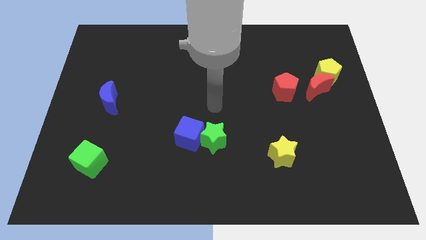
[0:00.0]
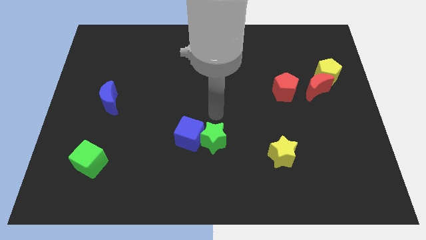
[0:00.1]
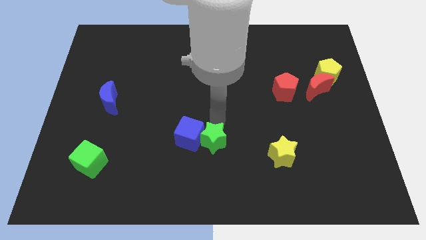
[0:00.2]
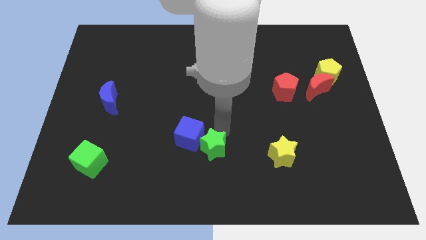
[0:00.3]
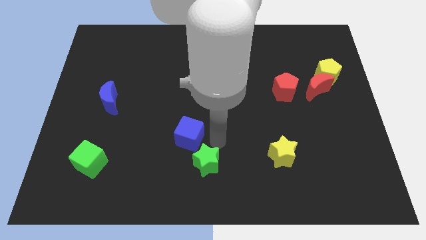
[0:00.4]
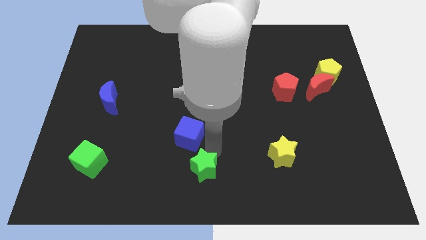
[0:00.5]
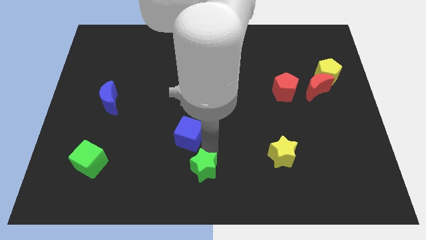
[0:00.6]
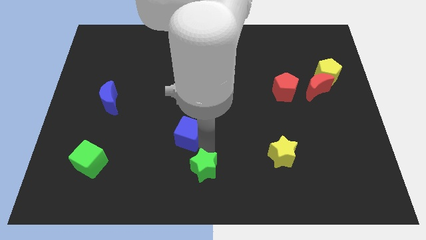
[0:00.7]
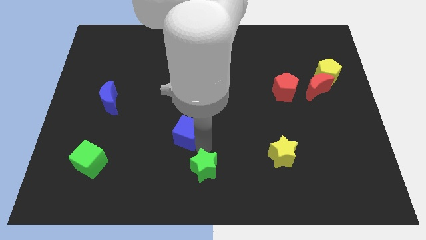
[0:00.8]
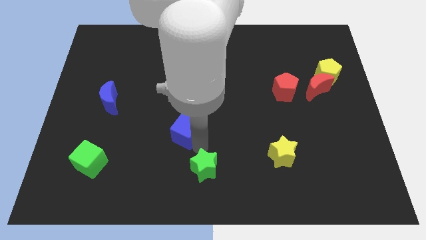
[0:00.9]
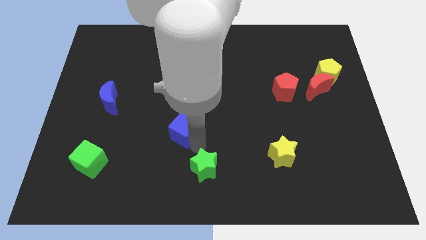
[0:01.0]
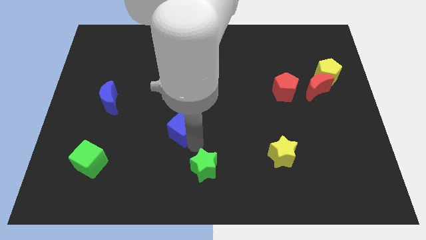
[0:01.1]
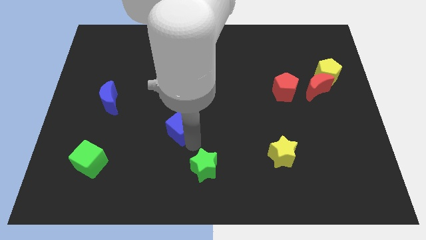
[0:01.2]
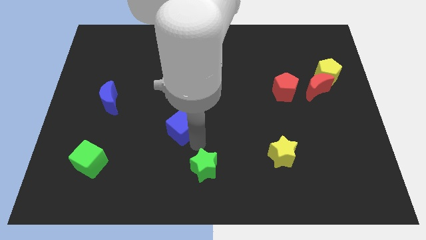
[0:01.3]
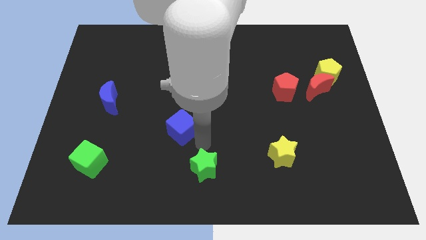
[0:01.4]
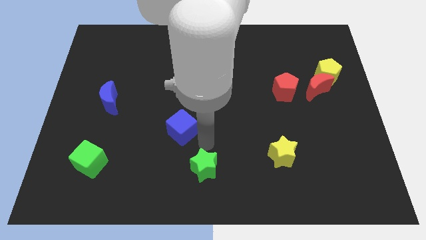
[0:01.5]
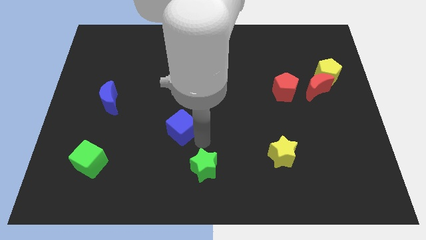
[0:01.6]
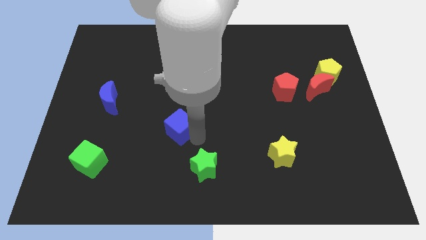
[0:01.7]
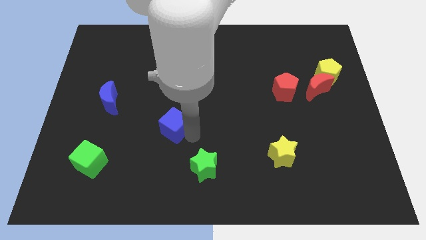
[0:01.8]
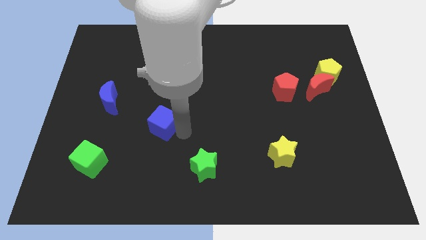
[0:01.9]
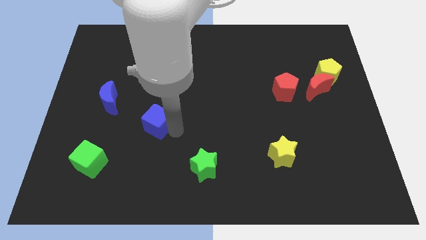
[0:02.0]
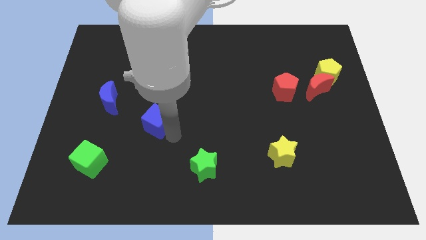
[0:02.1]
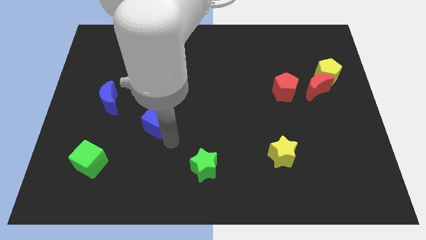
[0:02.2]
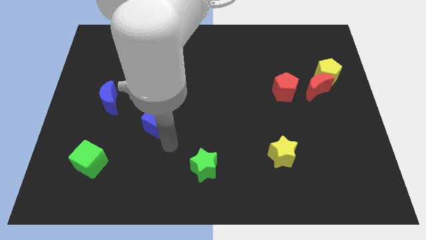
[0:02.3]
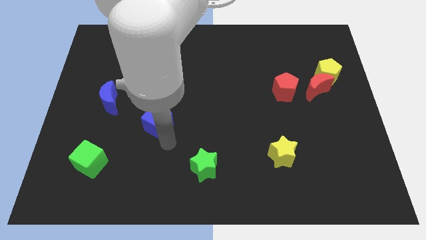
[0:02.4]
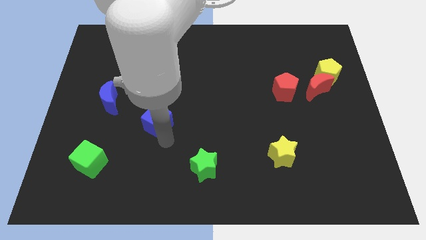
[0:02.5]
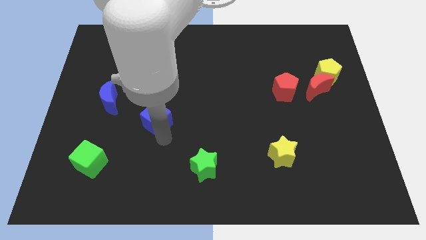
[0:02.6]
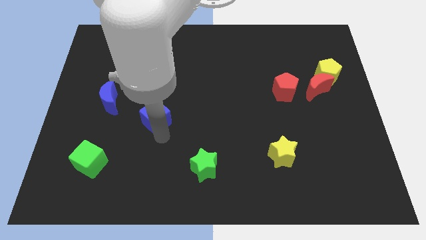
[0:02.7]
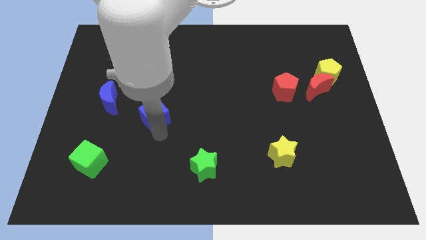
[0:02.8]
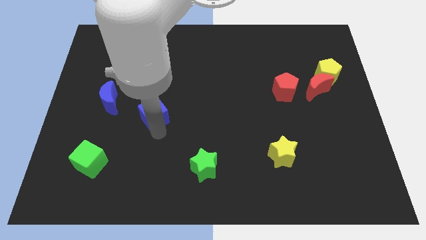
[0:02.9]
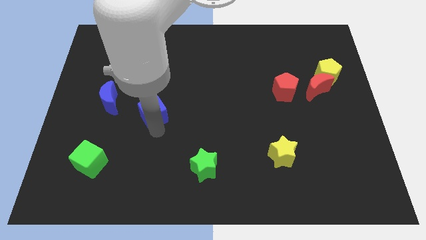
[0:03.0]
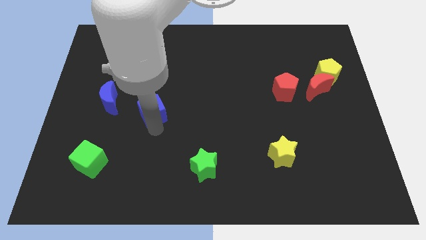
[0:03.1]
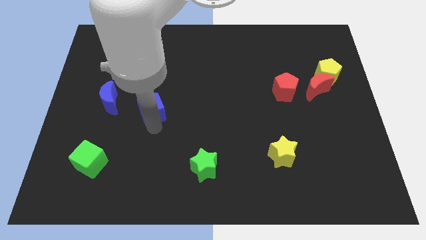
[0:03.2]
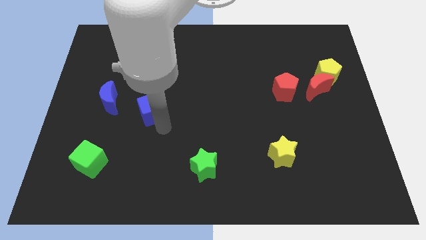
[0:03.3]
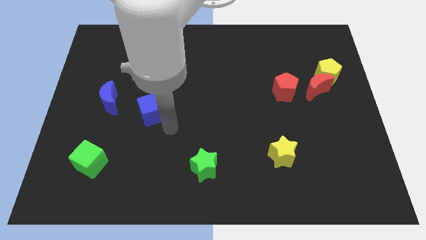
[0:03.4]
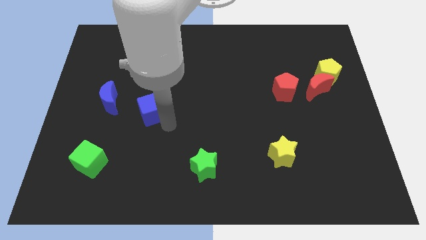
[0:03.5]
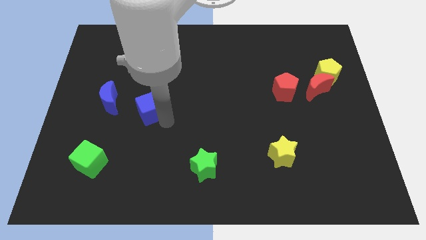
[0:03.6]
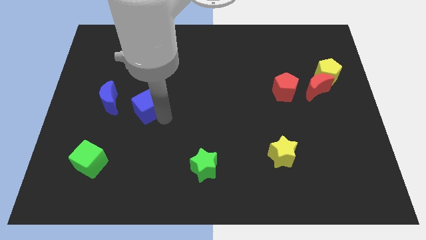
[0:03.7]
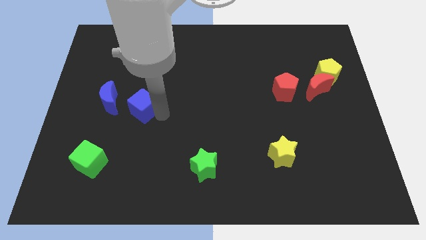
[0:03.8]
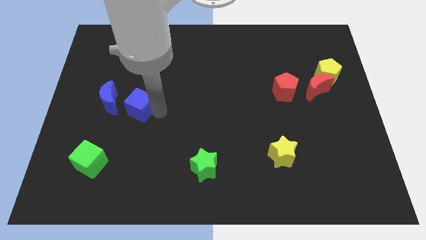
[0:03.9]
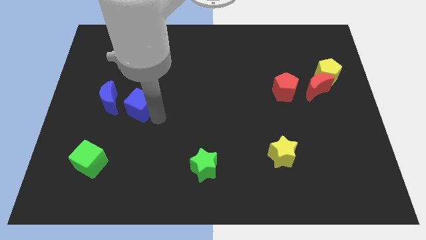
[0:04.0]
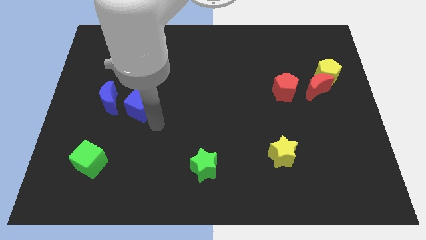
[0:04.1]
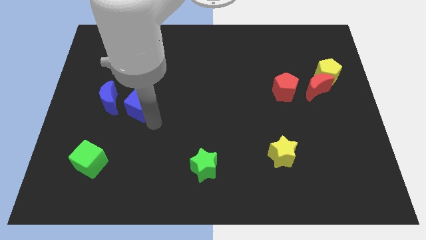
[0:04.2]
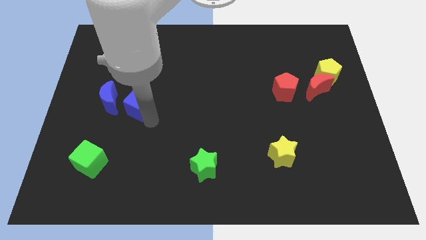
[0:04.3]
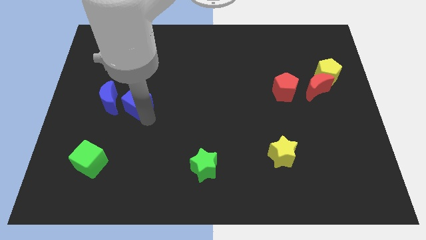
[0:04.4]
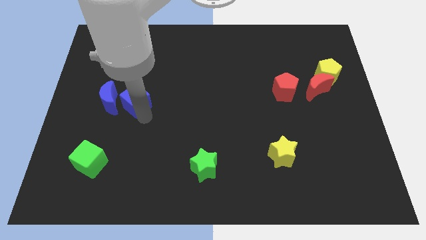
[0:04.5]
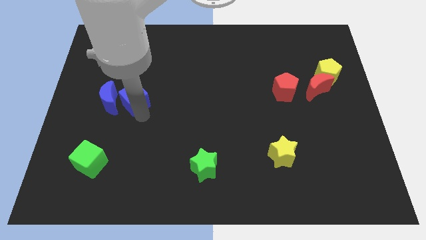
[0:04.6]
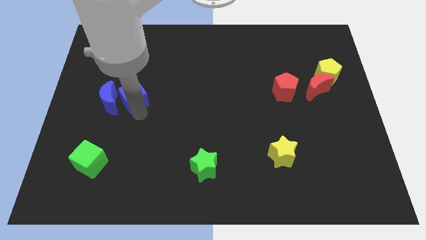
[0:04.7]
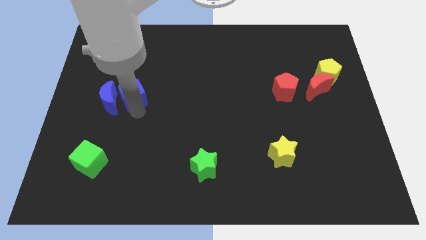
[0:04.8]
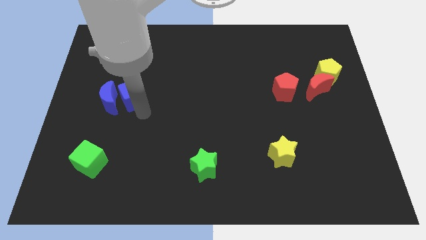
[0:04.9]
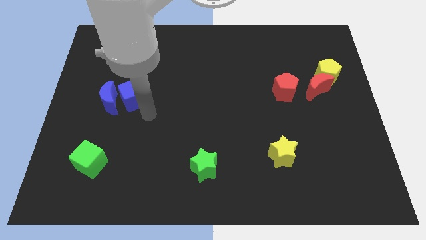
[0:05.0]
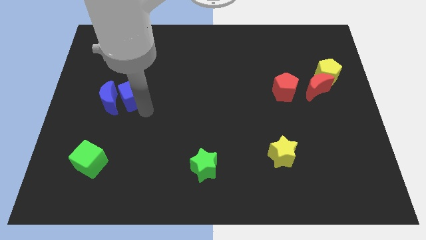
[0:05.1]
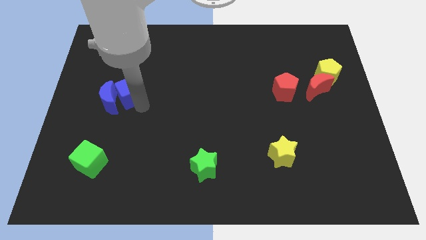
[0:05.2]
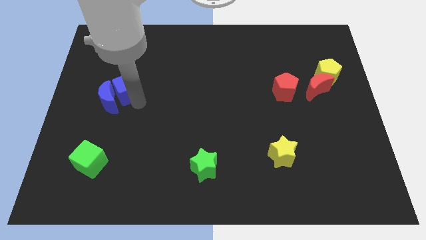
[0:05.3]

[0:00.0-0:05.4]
slide the blue cube up and left diagonally

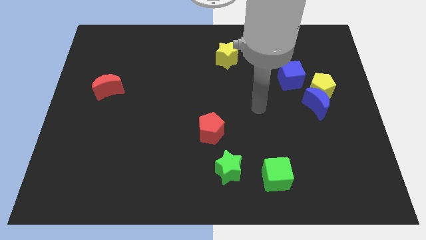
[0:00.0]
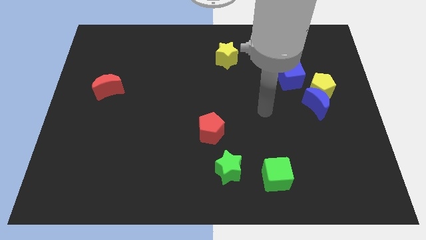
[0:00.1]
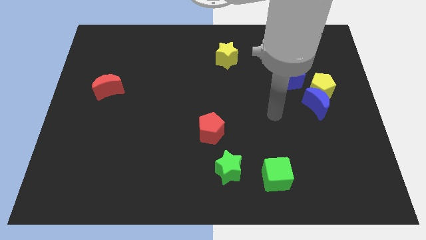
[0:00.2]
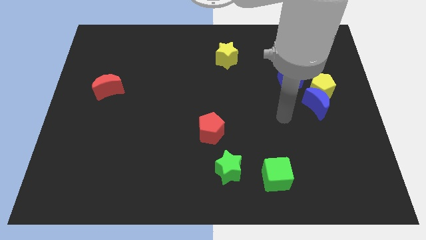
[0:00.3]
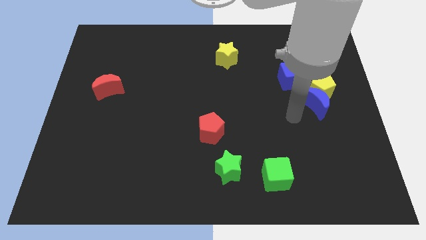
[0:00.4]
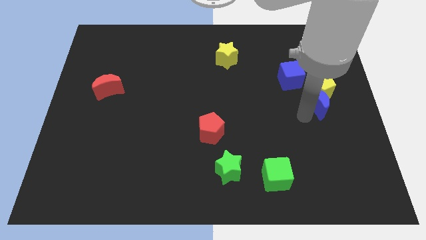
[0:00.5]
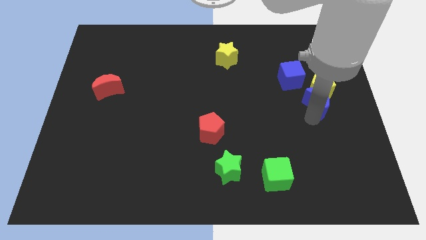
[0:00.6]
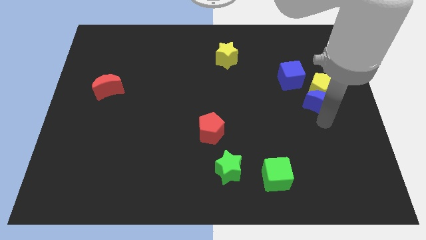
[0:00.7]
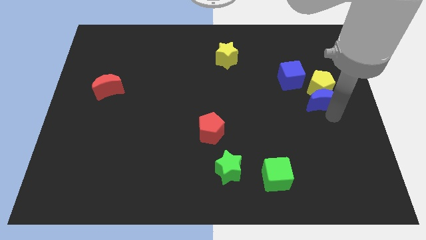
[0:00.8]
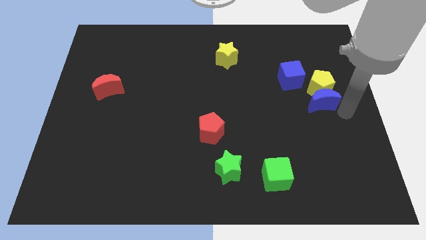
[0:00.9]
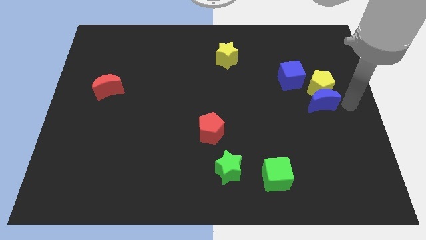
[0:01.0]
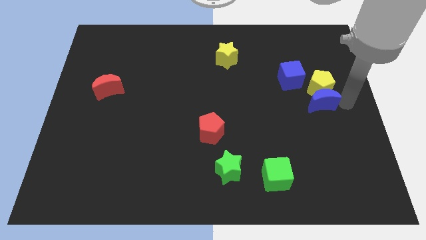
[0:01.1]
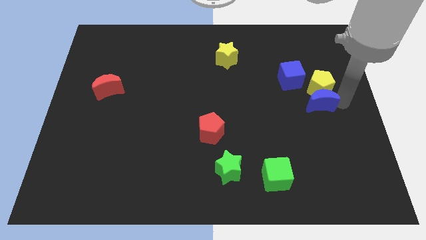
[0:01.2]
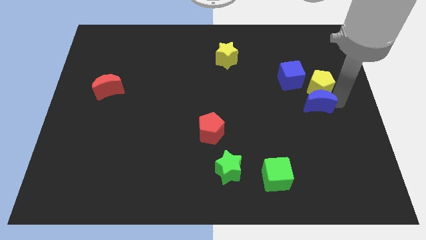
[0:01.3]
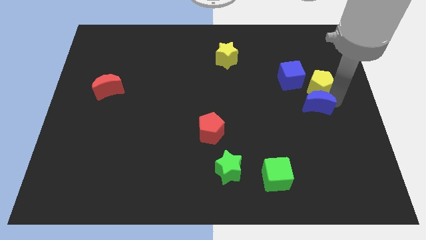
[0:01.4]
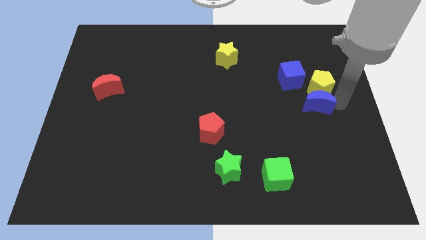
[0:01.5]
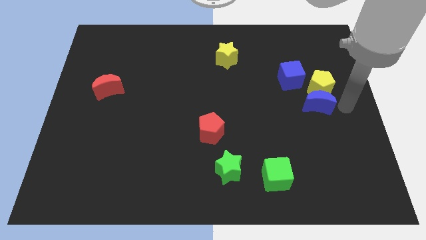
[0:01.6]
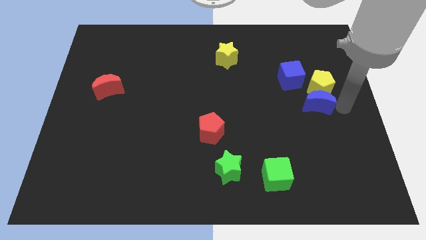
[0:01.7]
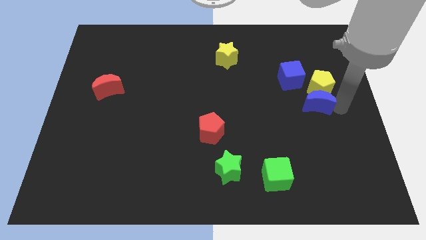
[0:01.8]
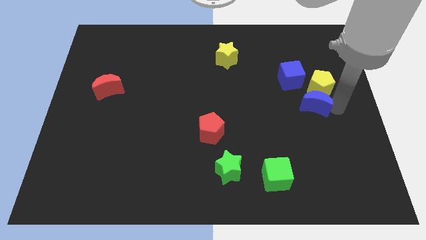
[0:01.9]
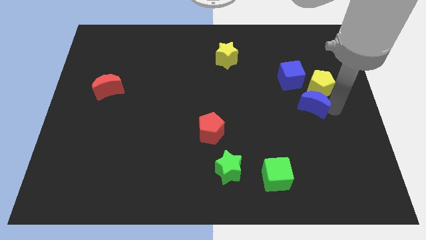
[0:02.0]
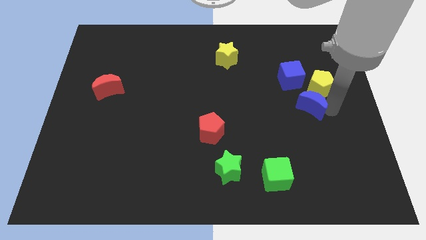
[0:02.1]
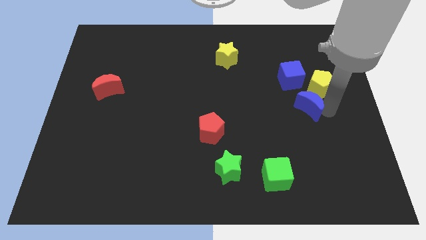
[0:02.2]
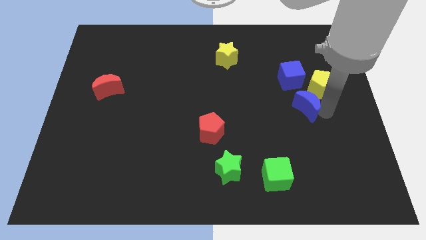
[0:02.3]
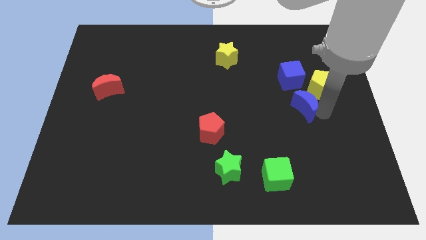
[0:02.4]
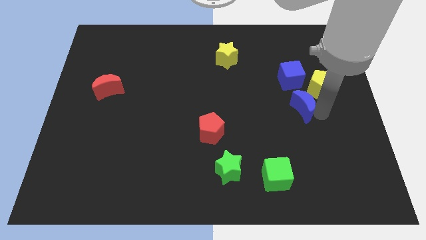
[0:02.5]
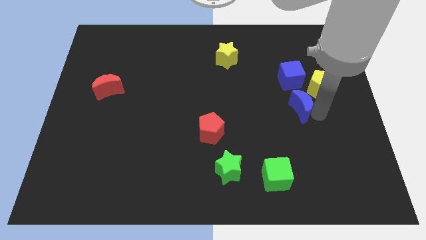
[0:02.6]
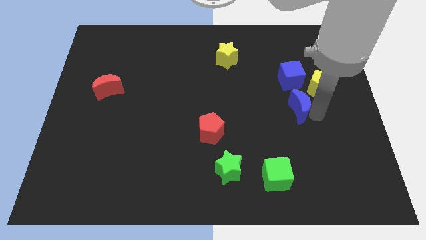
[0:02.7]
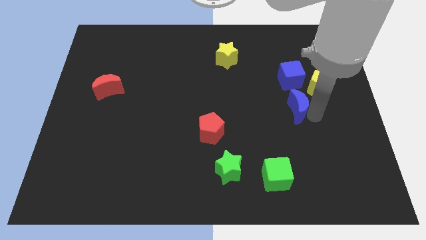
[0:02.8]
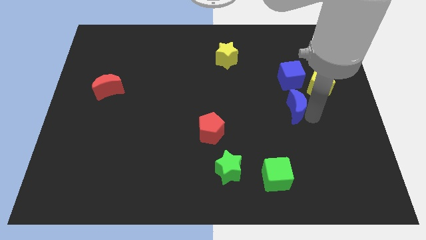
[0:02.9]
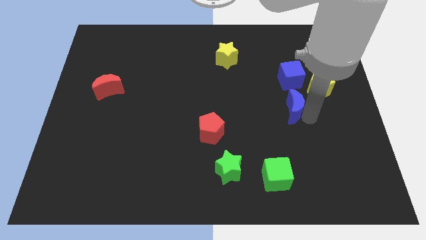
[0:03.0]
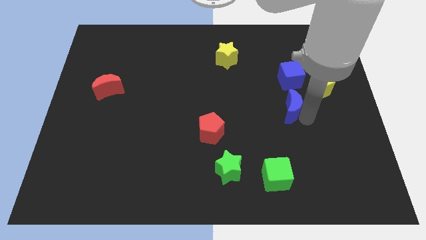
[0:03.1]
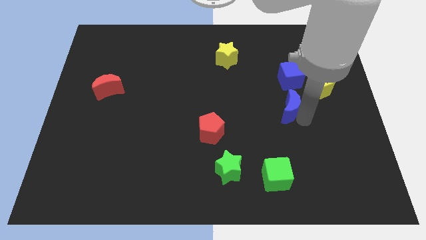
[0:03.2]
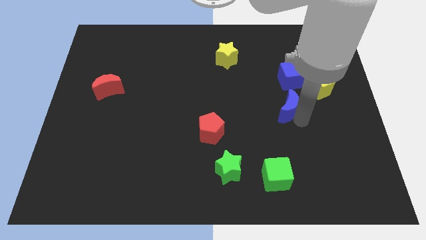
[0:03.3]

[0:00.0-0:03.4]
slightly slide the blue moon to the left
